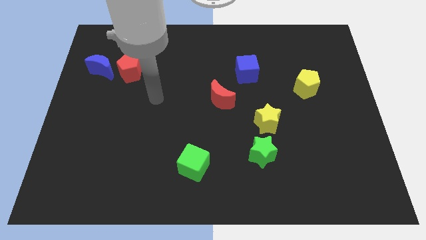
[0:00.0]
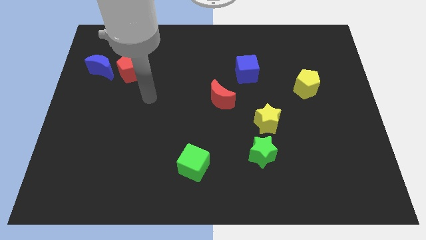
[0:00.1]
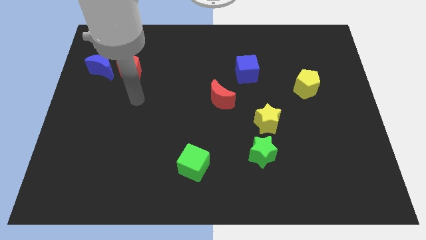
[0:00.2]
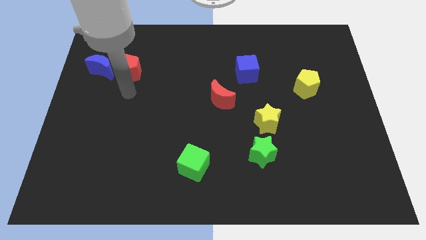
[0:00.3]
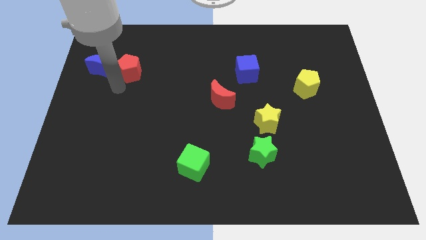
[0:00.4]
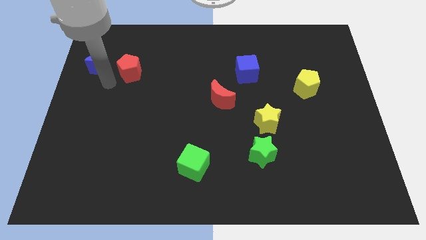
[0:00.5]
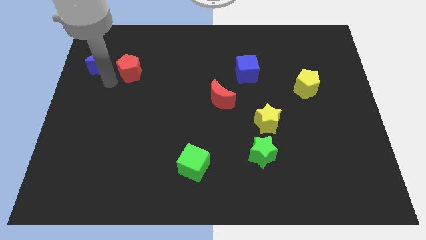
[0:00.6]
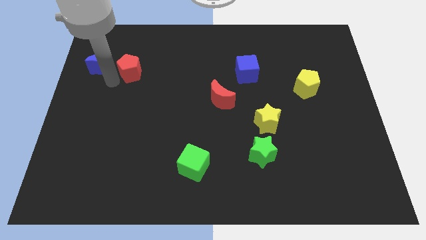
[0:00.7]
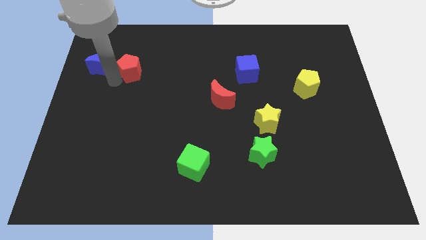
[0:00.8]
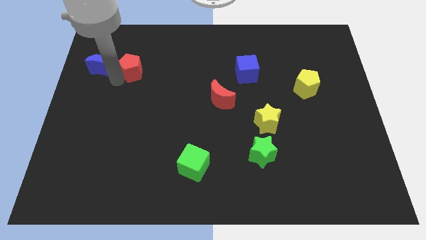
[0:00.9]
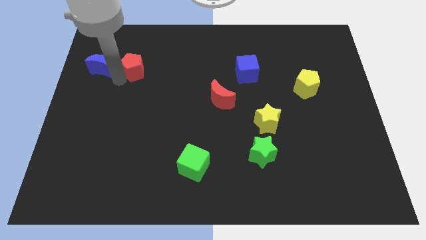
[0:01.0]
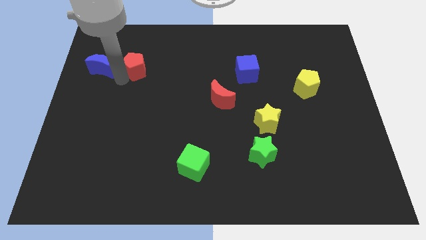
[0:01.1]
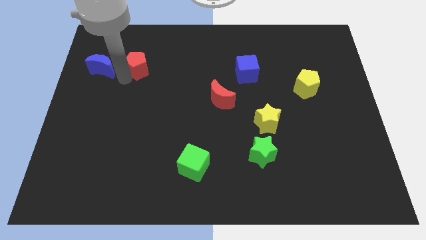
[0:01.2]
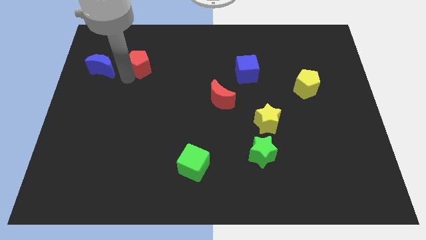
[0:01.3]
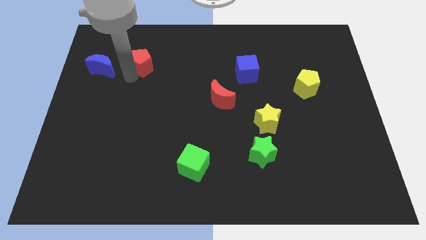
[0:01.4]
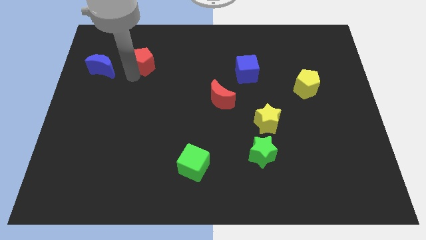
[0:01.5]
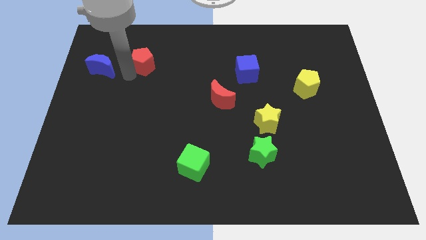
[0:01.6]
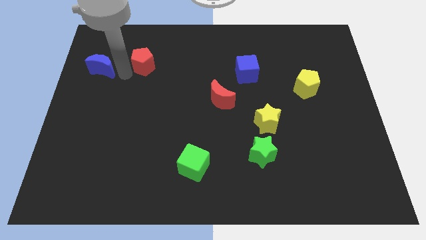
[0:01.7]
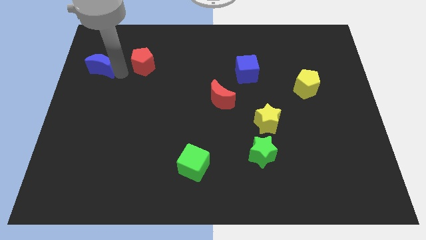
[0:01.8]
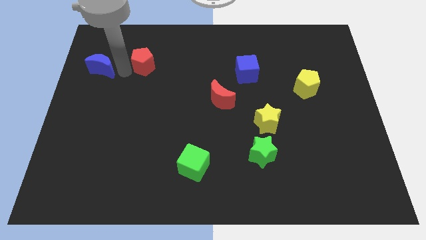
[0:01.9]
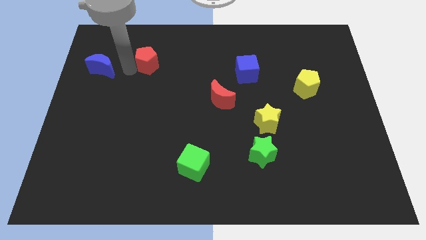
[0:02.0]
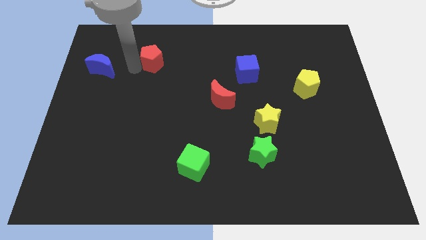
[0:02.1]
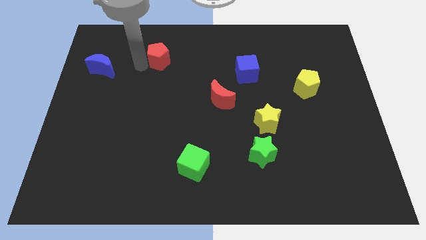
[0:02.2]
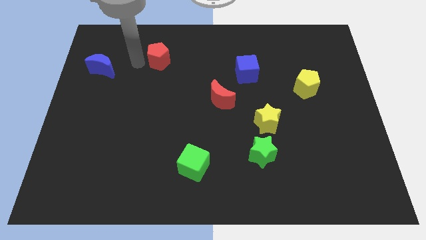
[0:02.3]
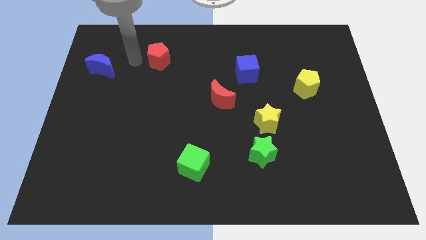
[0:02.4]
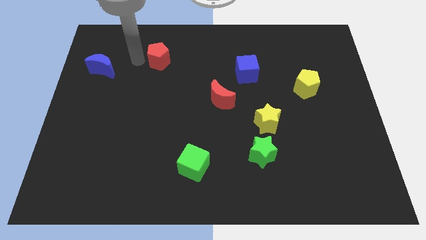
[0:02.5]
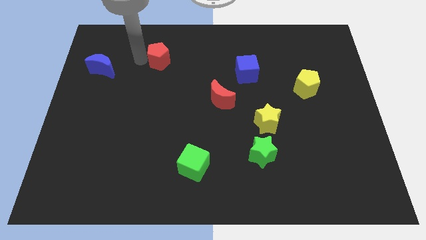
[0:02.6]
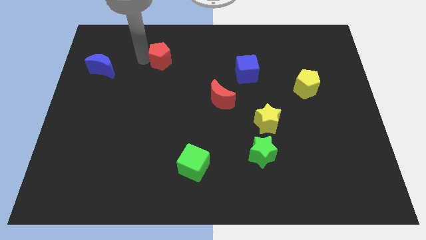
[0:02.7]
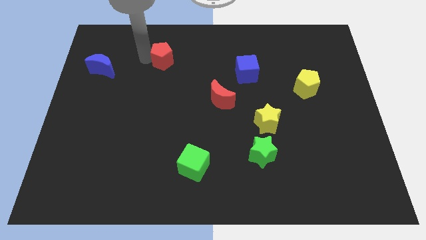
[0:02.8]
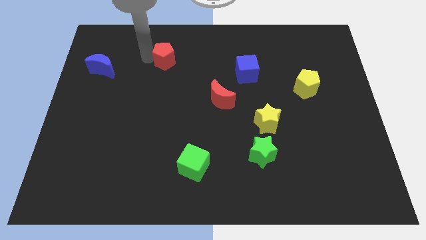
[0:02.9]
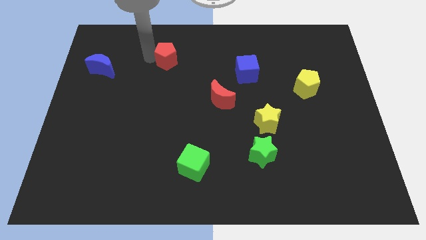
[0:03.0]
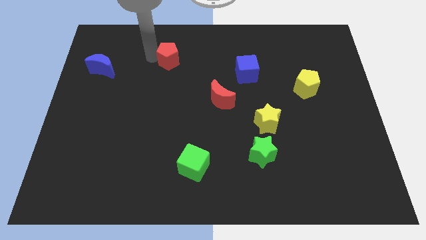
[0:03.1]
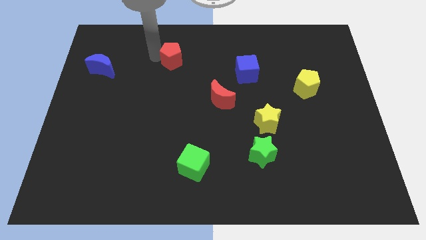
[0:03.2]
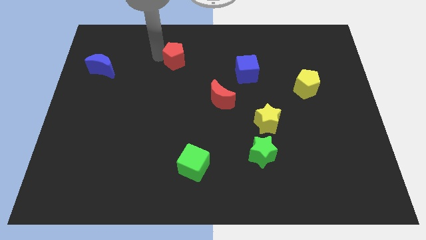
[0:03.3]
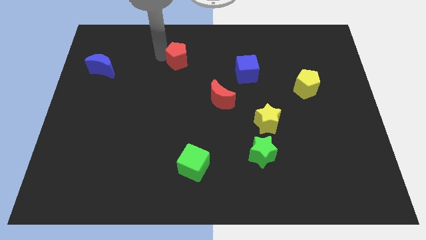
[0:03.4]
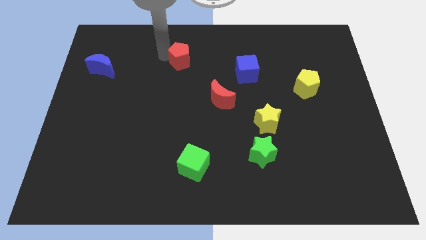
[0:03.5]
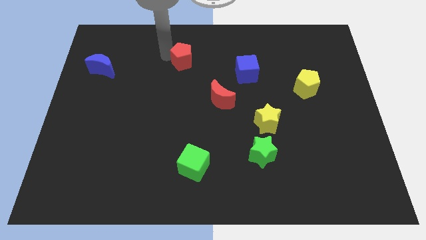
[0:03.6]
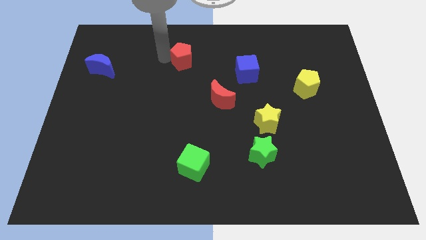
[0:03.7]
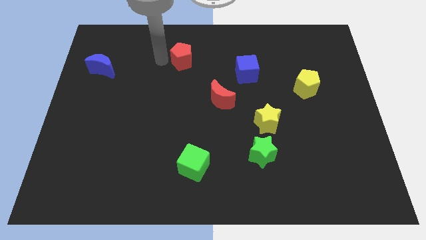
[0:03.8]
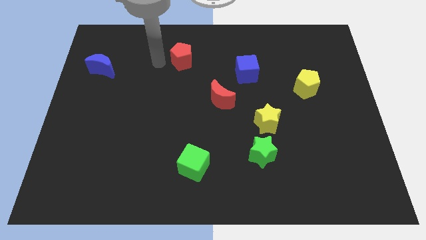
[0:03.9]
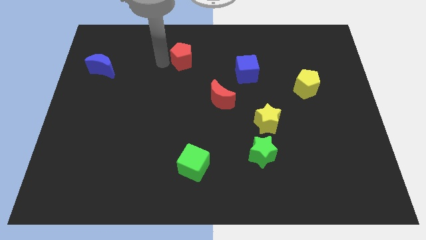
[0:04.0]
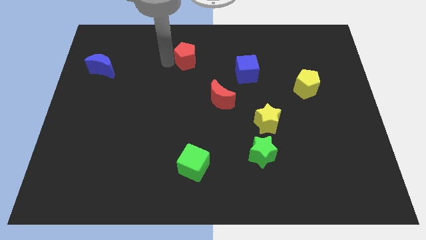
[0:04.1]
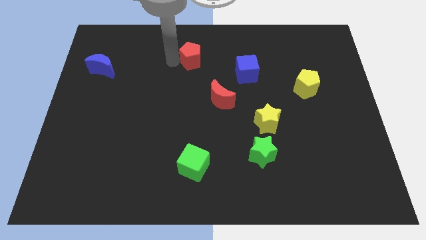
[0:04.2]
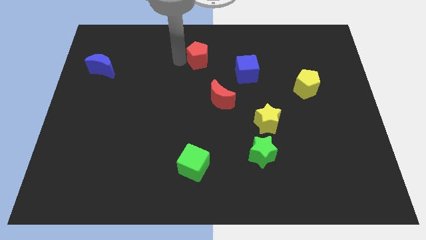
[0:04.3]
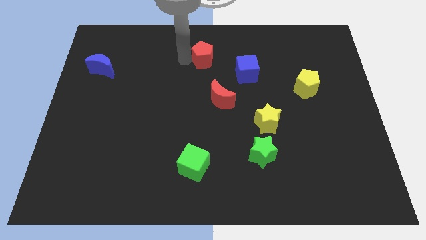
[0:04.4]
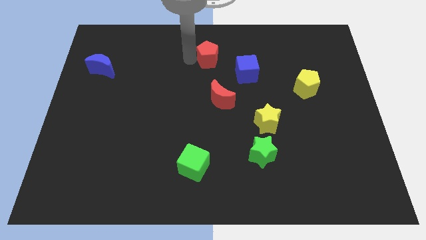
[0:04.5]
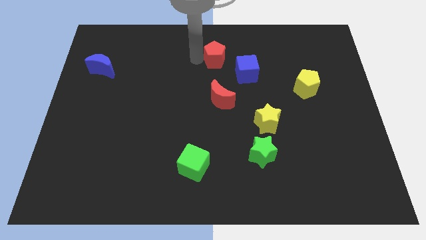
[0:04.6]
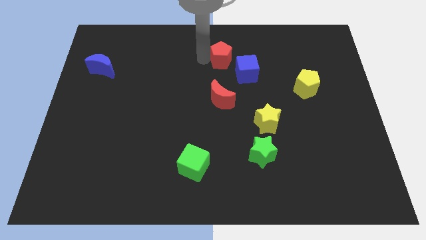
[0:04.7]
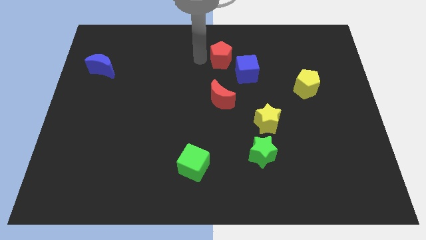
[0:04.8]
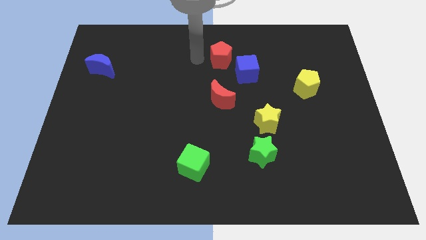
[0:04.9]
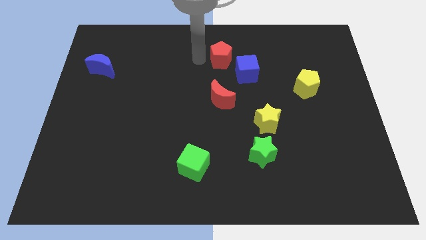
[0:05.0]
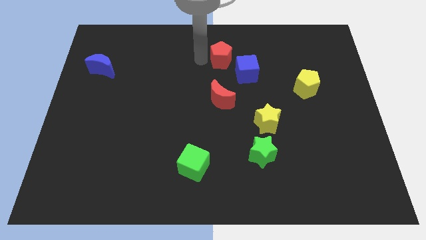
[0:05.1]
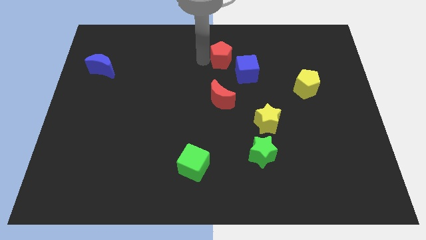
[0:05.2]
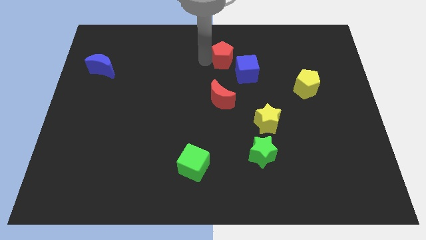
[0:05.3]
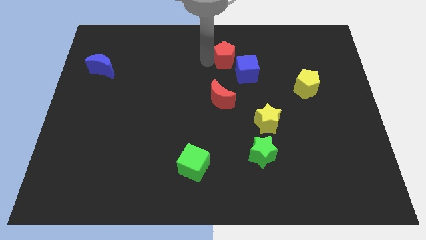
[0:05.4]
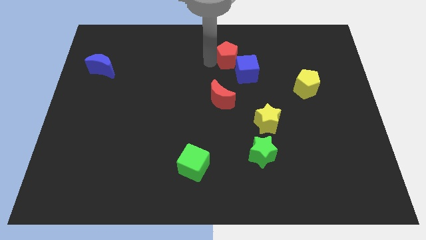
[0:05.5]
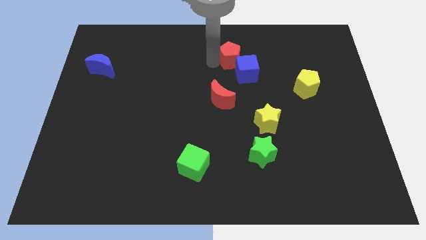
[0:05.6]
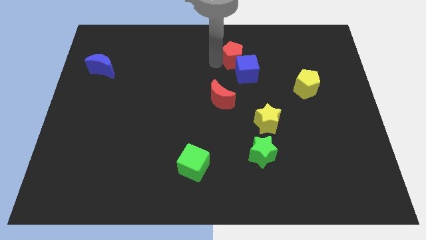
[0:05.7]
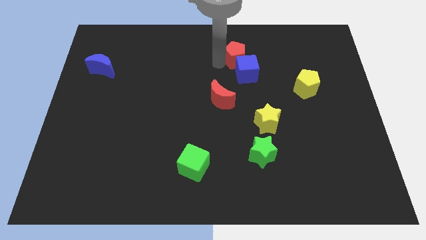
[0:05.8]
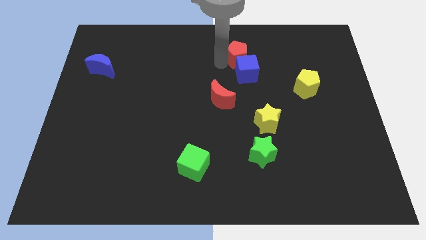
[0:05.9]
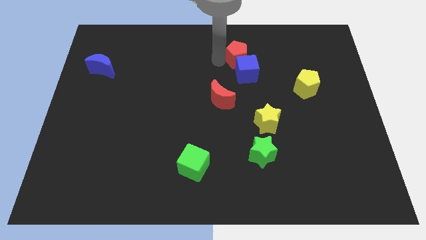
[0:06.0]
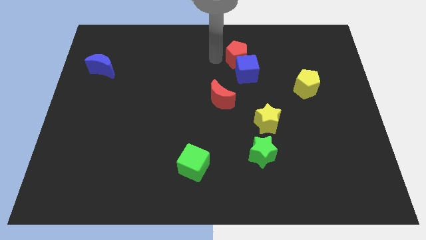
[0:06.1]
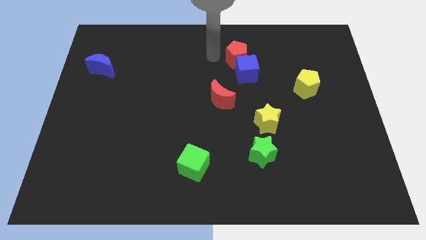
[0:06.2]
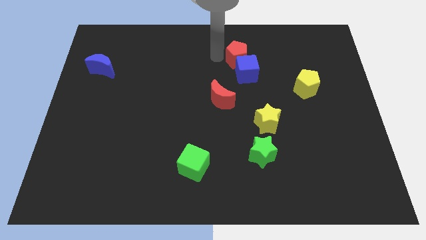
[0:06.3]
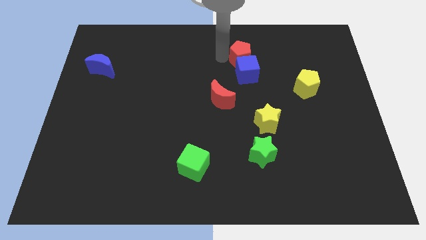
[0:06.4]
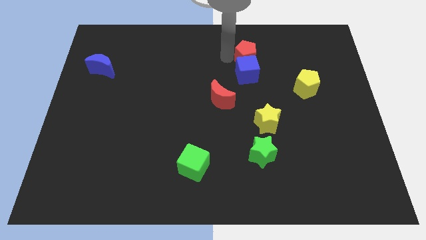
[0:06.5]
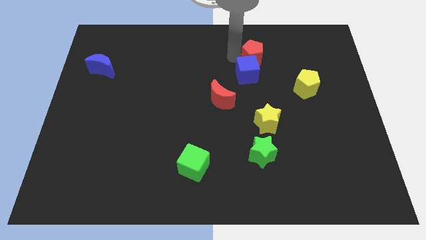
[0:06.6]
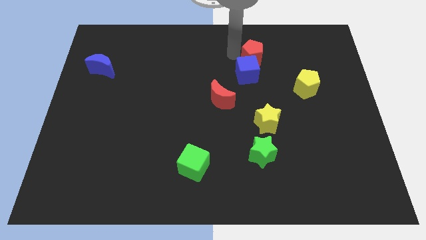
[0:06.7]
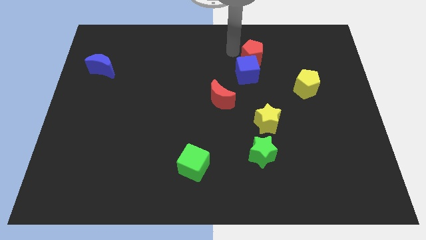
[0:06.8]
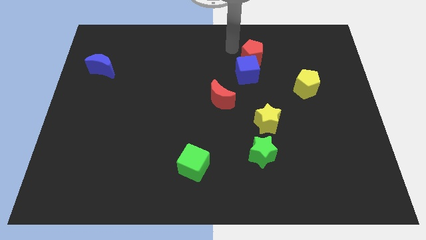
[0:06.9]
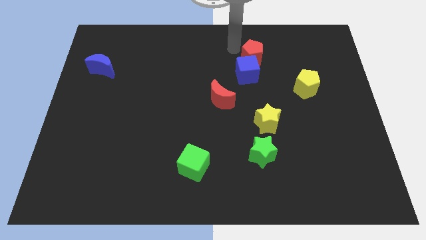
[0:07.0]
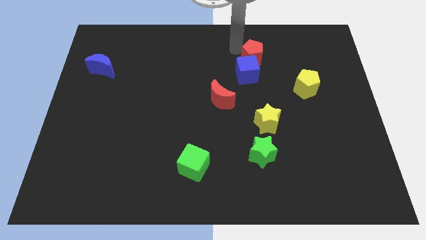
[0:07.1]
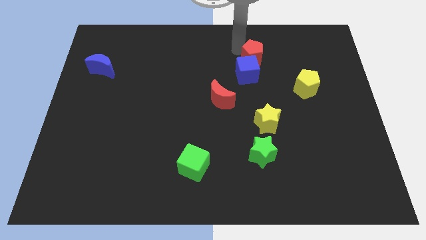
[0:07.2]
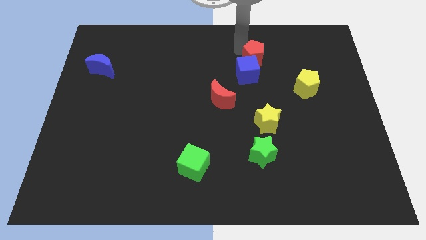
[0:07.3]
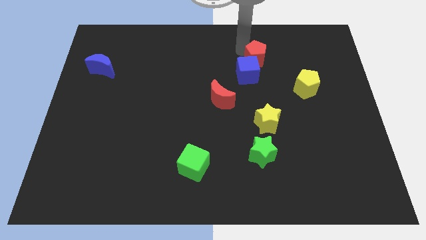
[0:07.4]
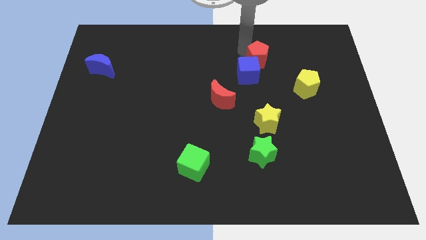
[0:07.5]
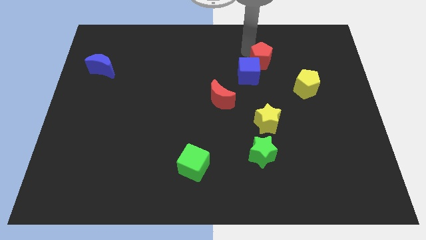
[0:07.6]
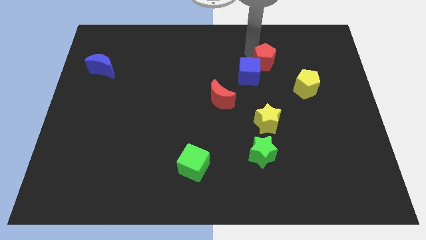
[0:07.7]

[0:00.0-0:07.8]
put the red pentagon to the right side of the blue cube
